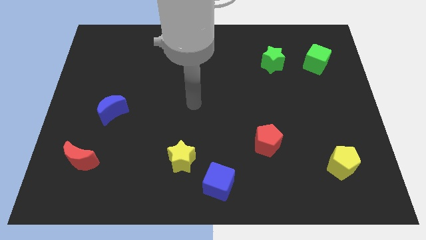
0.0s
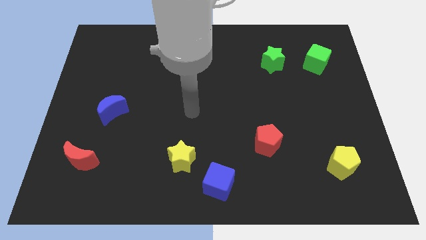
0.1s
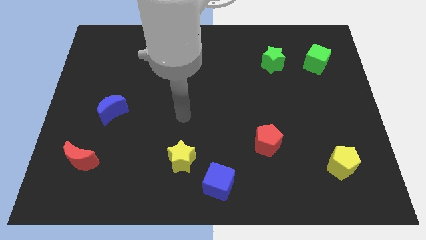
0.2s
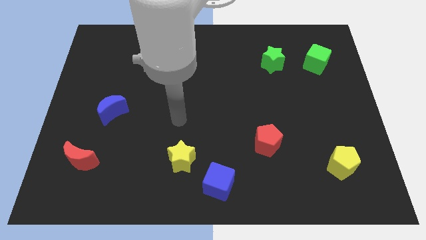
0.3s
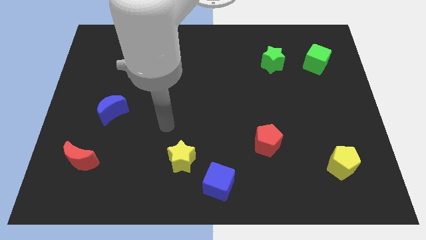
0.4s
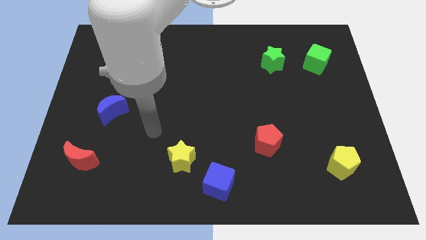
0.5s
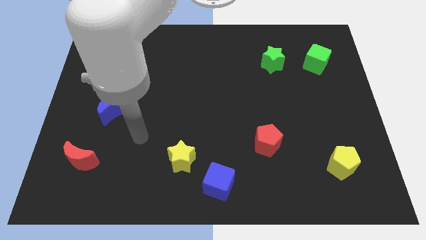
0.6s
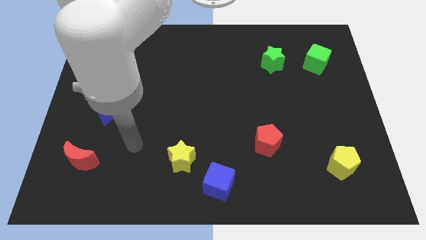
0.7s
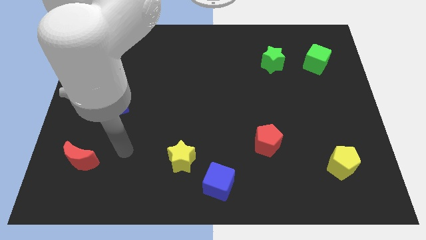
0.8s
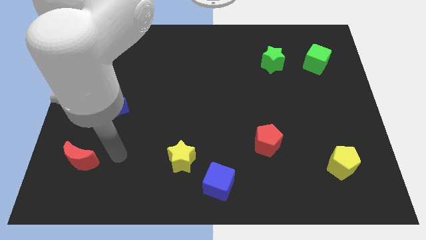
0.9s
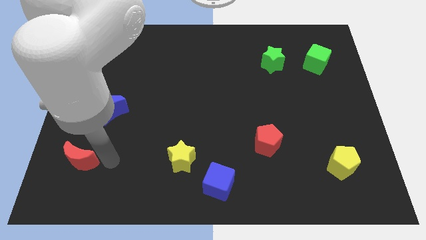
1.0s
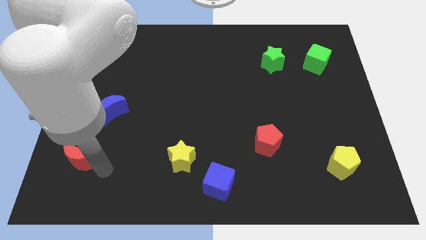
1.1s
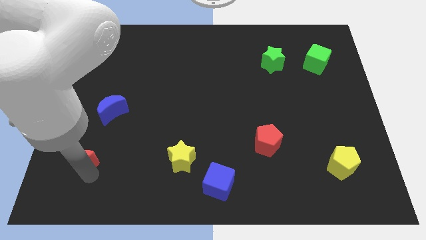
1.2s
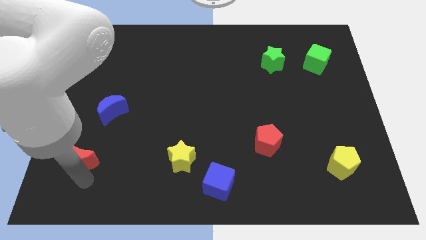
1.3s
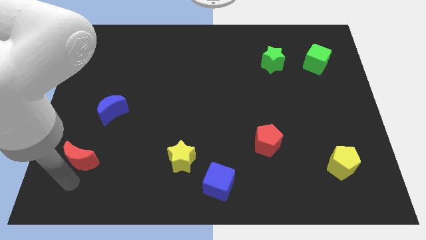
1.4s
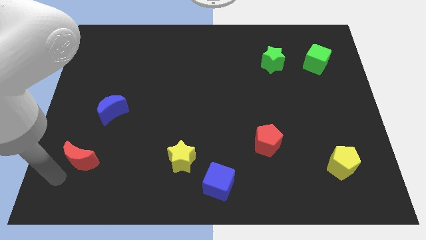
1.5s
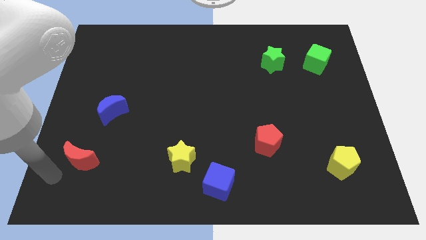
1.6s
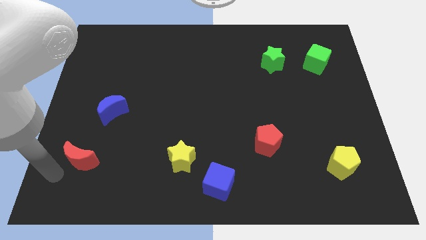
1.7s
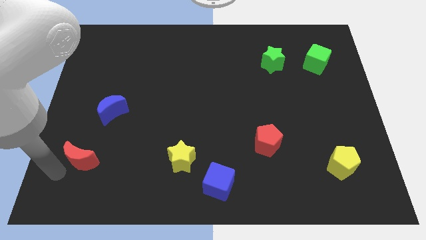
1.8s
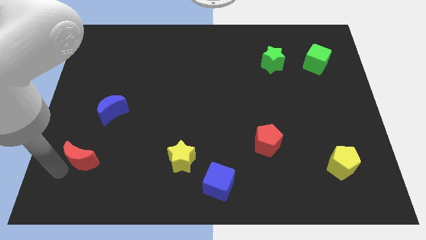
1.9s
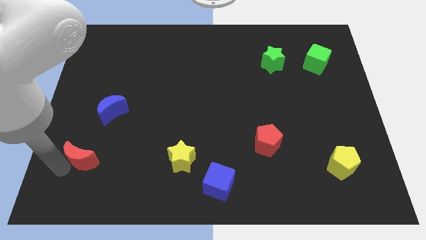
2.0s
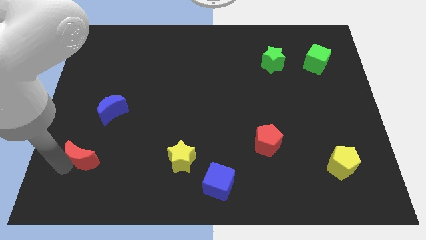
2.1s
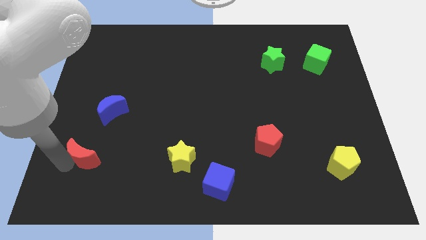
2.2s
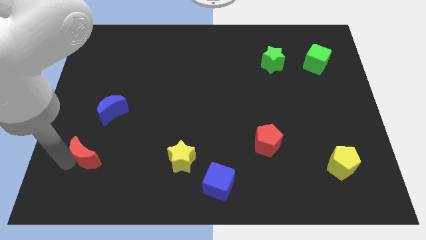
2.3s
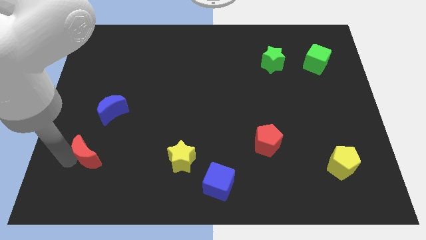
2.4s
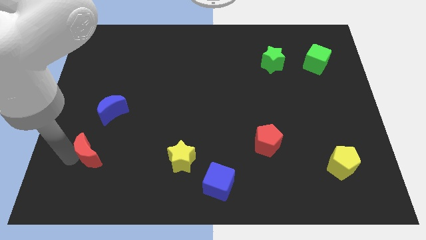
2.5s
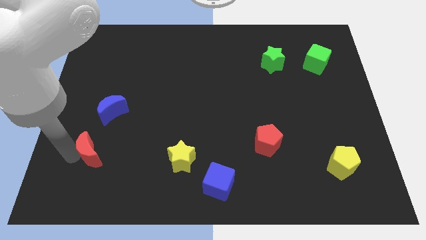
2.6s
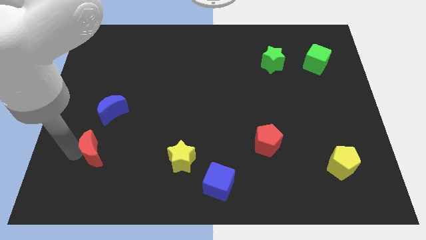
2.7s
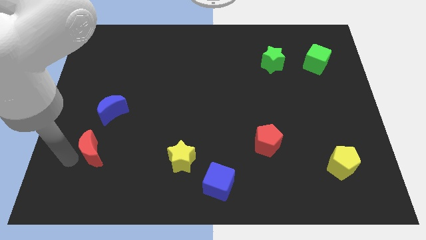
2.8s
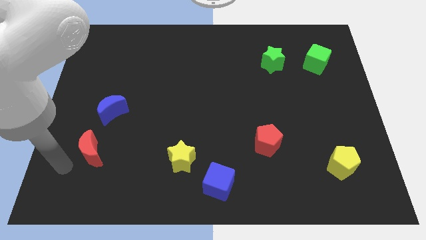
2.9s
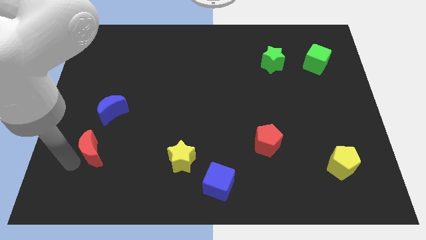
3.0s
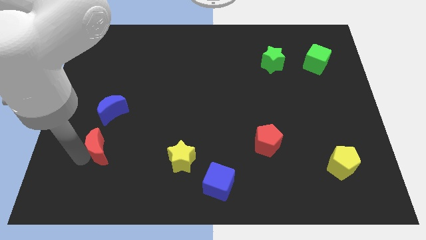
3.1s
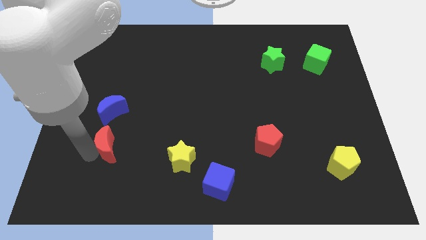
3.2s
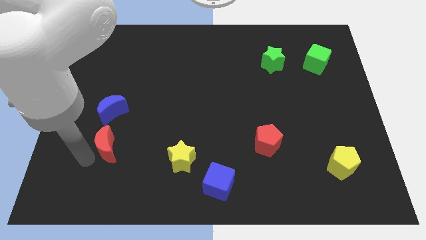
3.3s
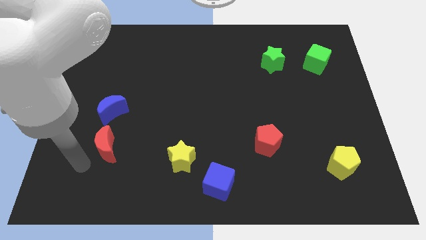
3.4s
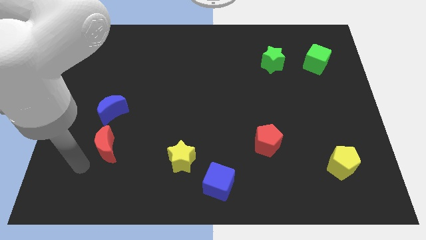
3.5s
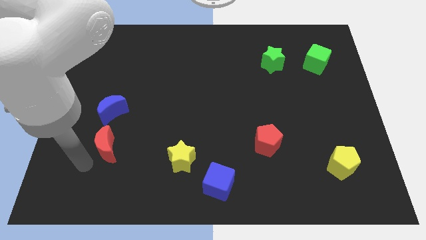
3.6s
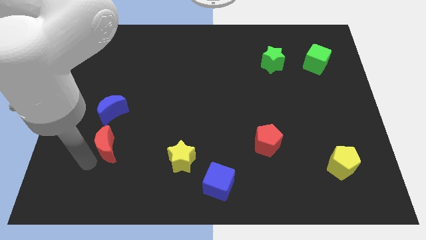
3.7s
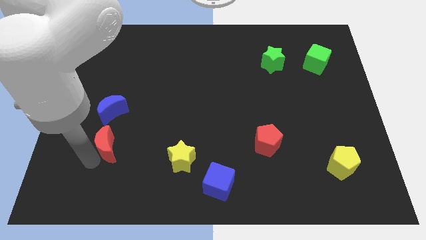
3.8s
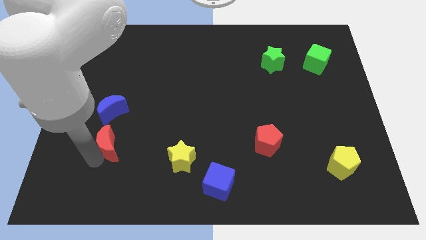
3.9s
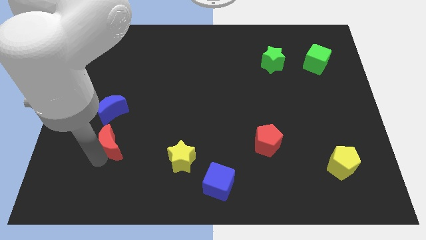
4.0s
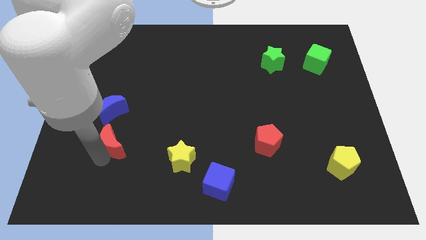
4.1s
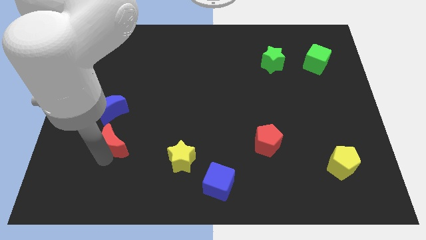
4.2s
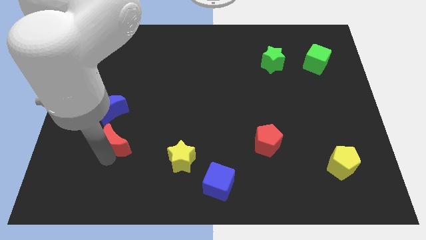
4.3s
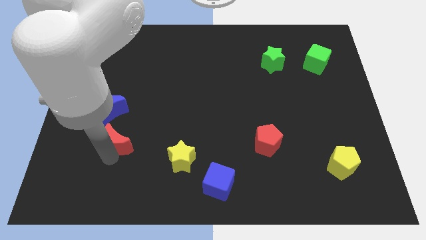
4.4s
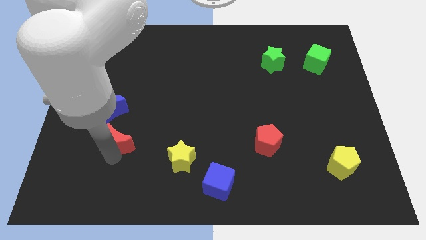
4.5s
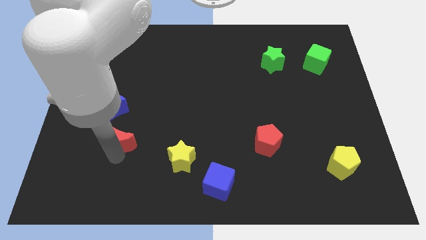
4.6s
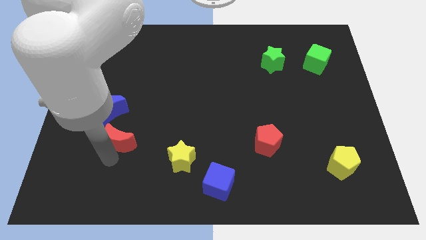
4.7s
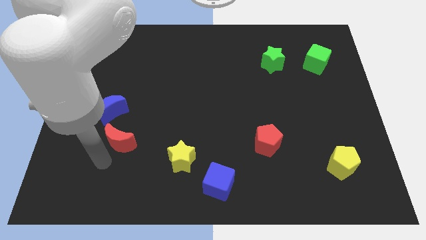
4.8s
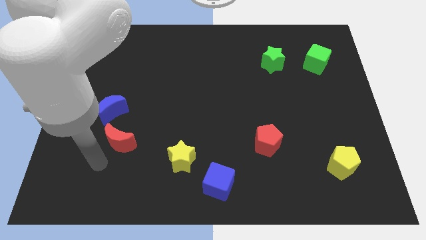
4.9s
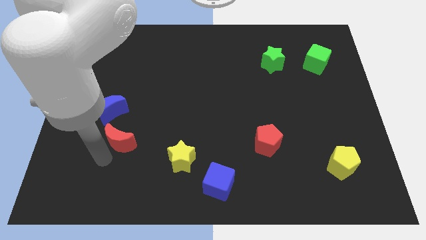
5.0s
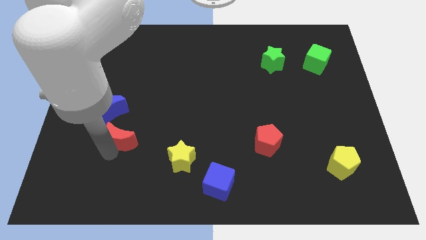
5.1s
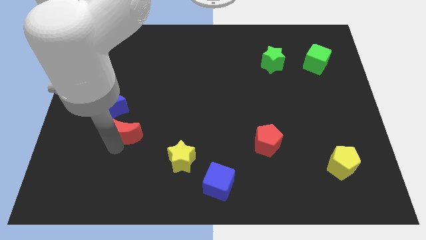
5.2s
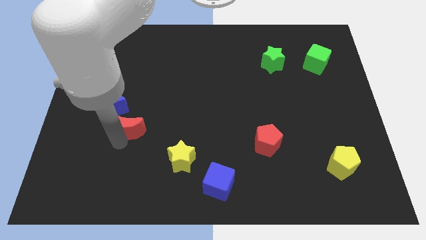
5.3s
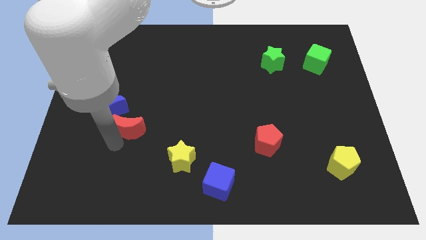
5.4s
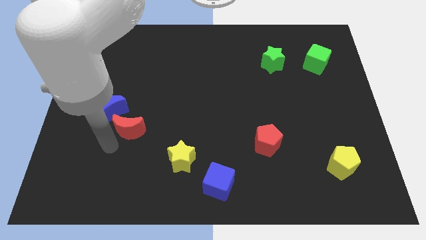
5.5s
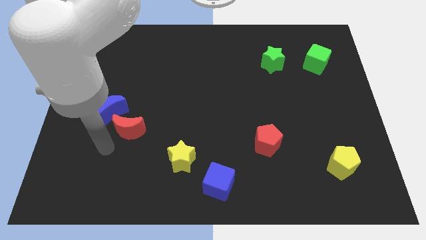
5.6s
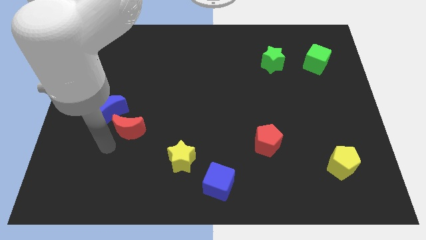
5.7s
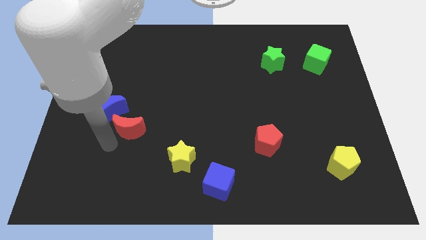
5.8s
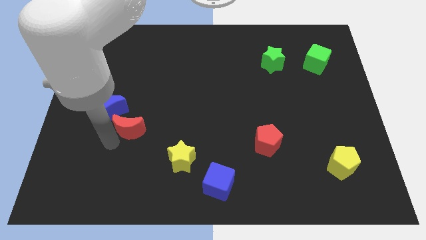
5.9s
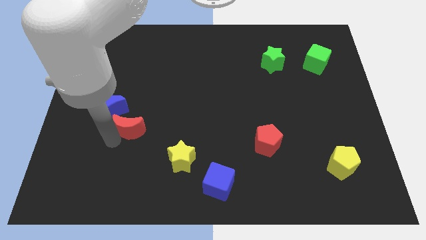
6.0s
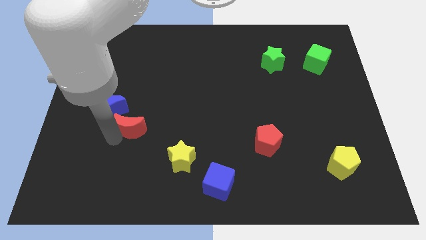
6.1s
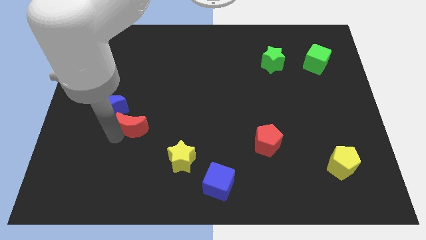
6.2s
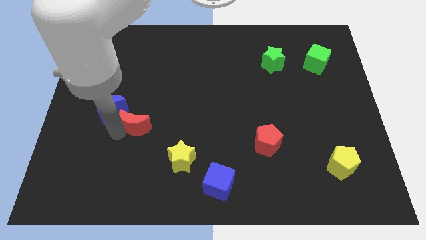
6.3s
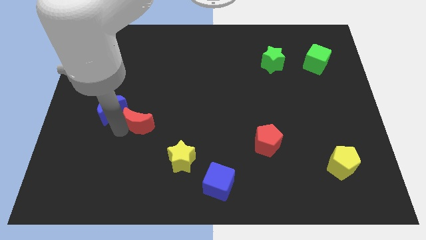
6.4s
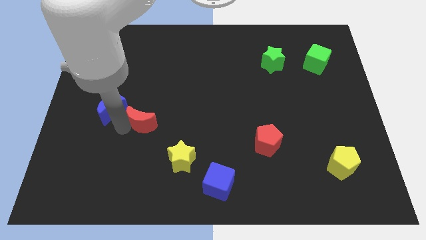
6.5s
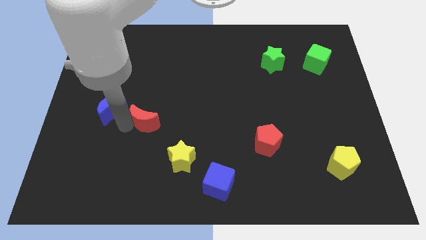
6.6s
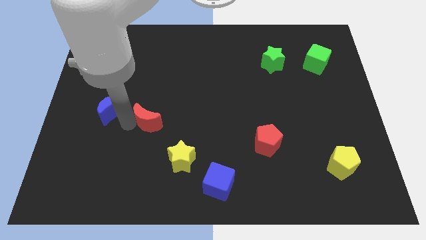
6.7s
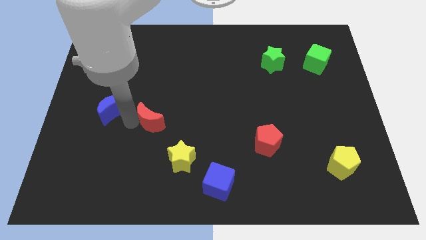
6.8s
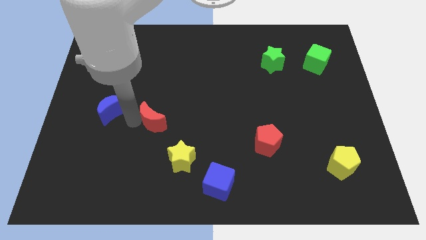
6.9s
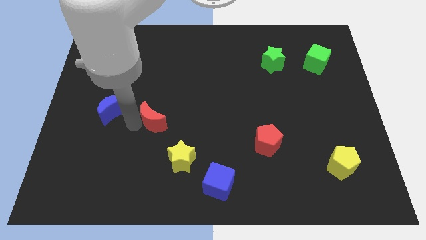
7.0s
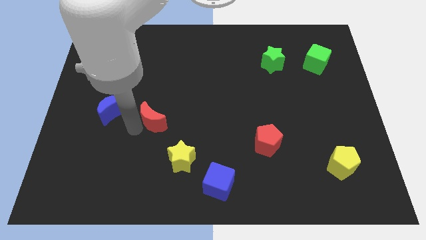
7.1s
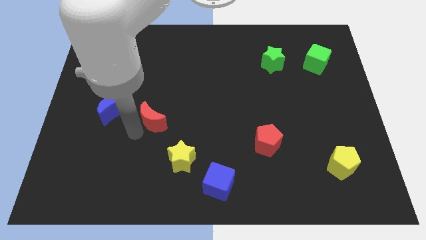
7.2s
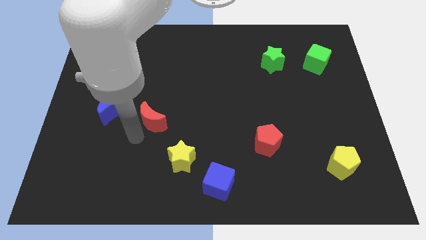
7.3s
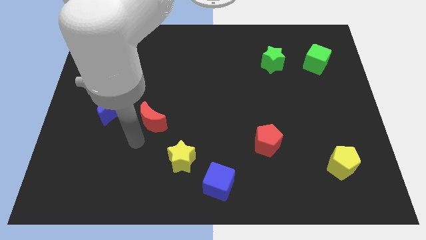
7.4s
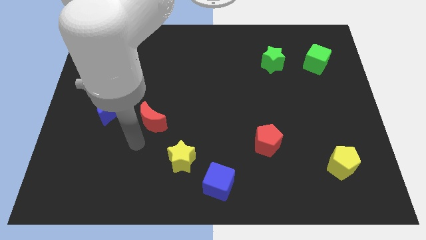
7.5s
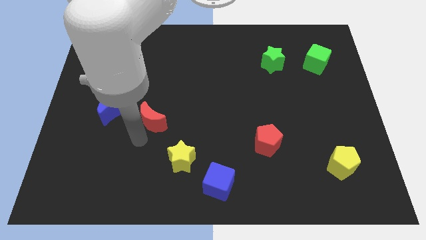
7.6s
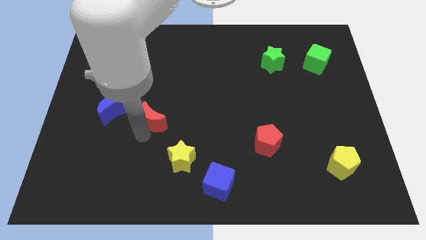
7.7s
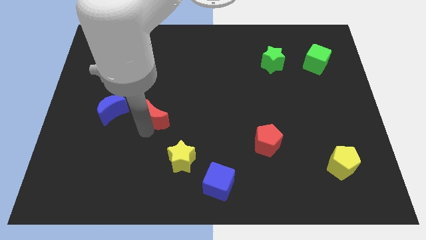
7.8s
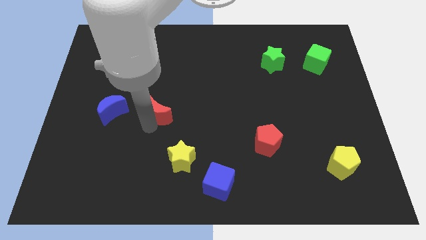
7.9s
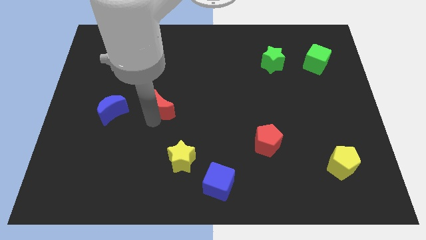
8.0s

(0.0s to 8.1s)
push the red moon upwards and right diagonally
